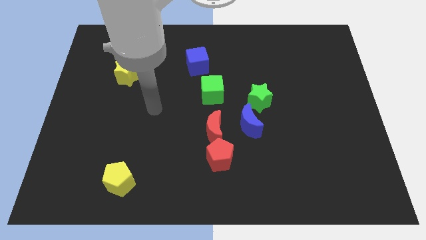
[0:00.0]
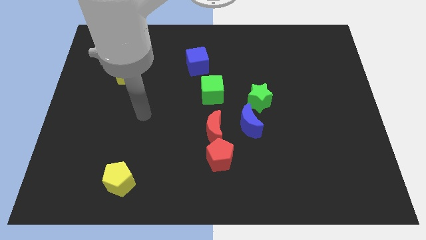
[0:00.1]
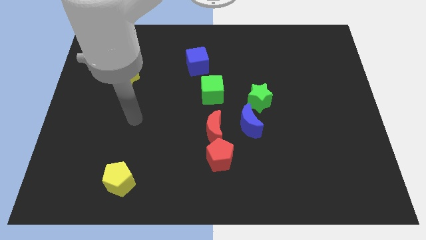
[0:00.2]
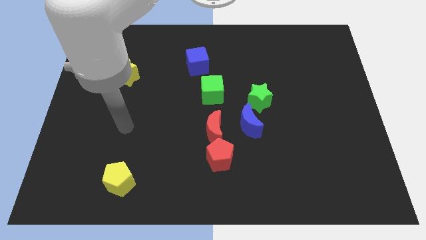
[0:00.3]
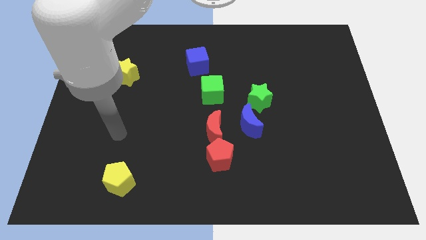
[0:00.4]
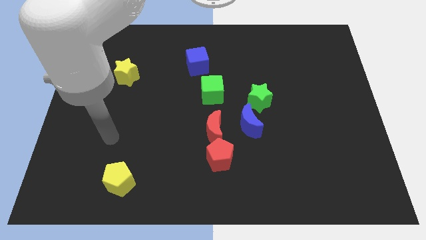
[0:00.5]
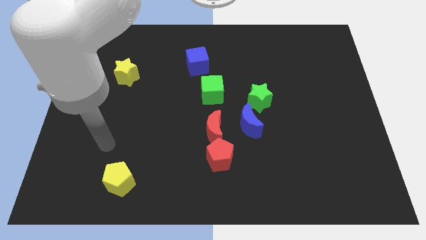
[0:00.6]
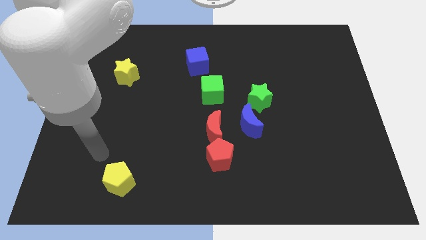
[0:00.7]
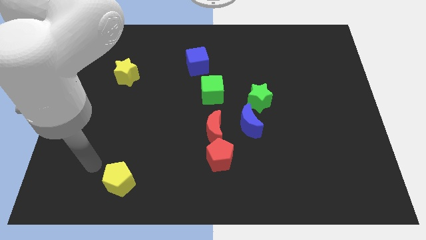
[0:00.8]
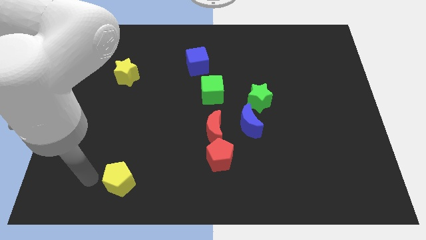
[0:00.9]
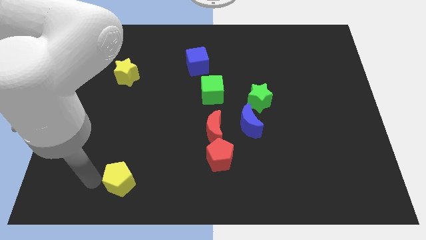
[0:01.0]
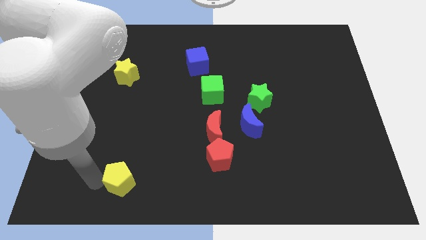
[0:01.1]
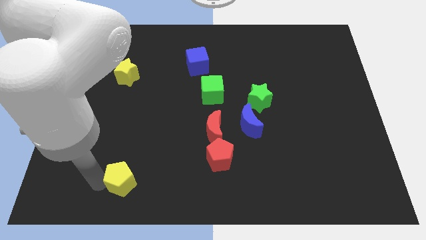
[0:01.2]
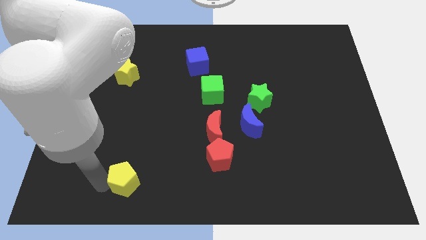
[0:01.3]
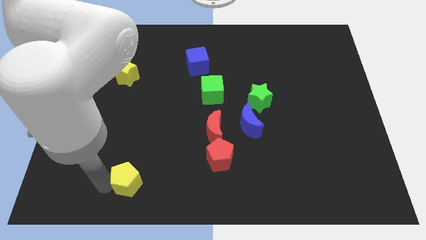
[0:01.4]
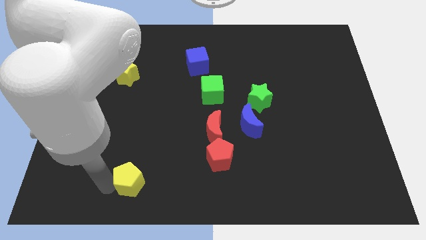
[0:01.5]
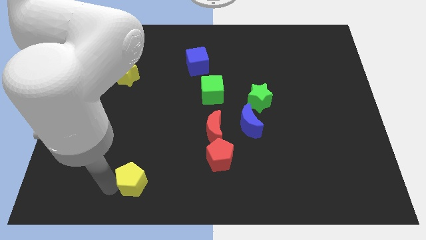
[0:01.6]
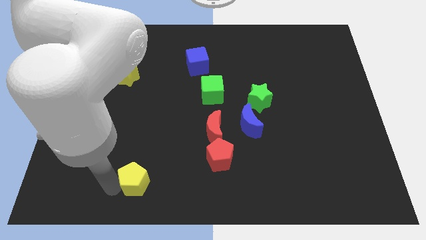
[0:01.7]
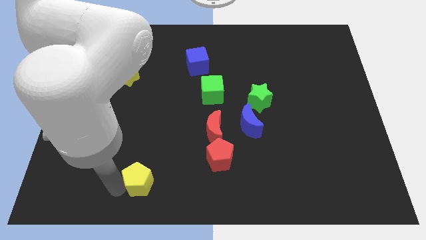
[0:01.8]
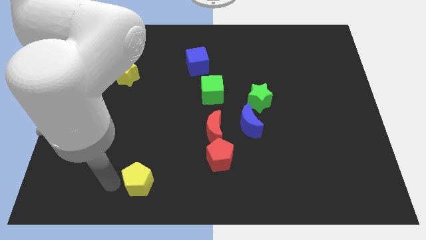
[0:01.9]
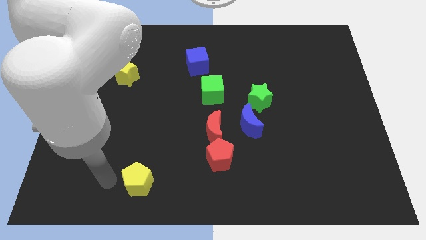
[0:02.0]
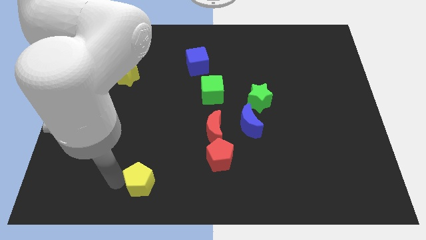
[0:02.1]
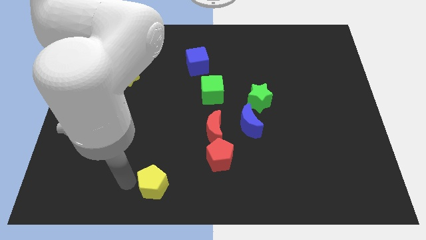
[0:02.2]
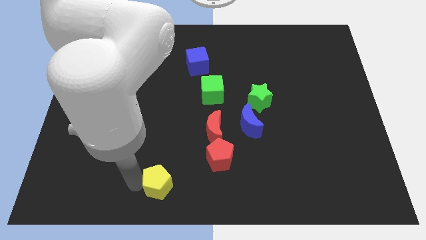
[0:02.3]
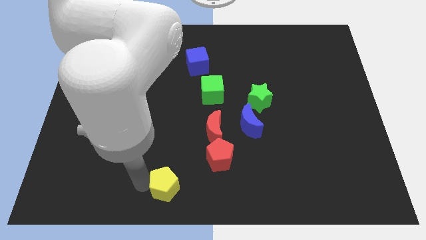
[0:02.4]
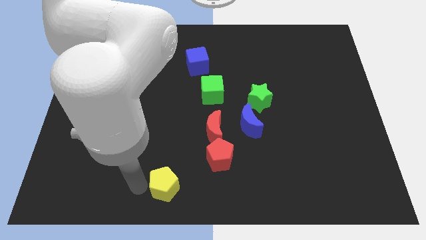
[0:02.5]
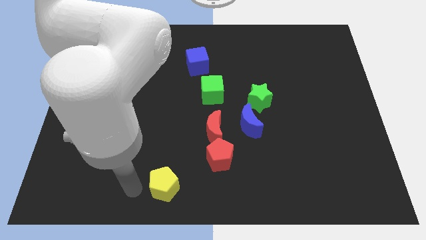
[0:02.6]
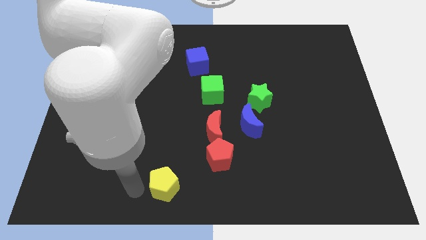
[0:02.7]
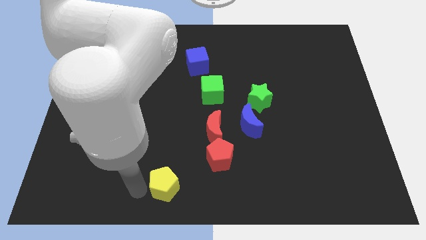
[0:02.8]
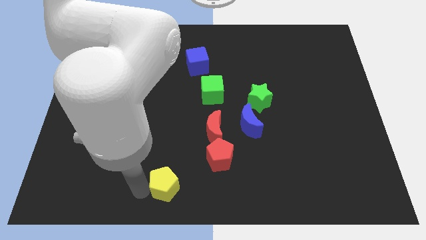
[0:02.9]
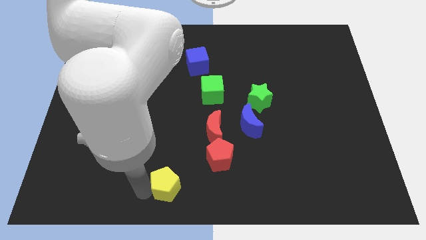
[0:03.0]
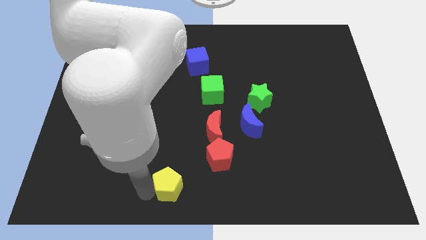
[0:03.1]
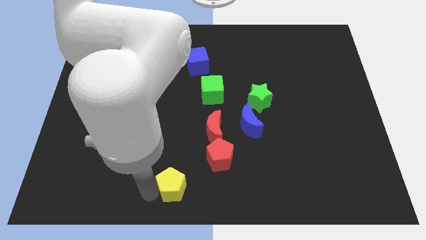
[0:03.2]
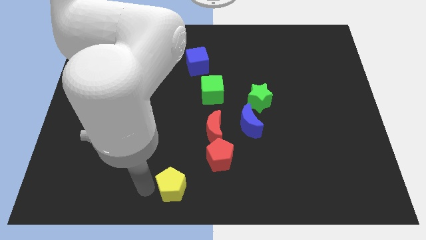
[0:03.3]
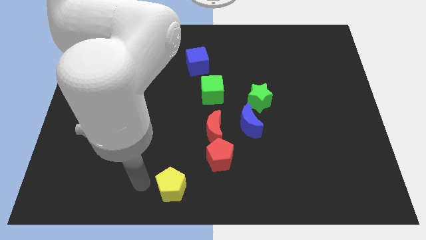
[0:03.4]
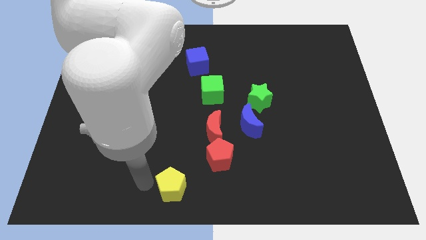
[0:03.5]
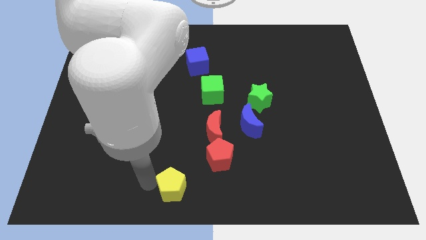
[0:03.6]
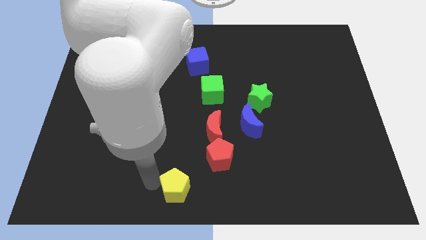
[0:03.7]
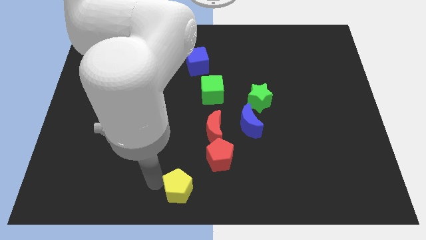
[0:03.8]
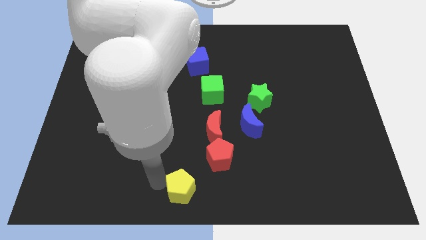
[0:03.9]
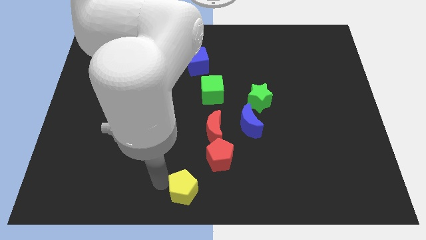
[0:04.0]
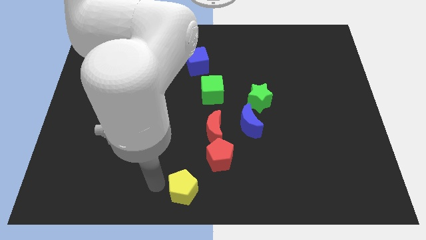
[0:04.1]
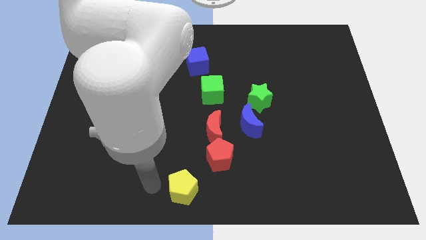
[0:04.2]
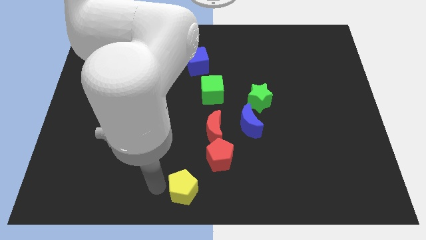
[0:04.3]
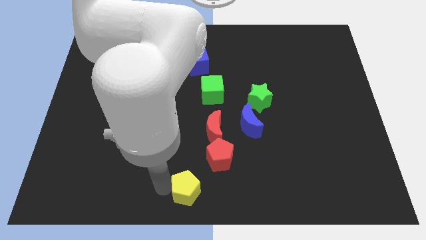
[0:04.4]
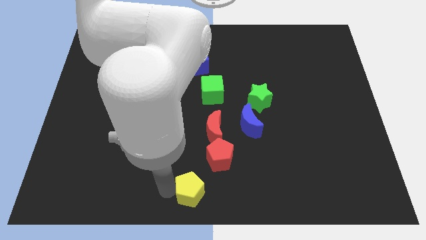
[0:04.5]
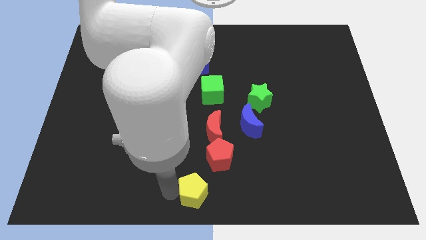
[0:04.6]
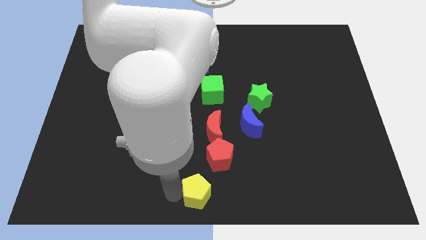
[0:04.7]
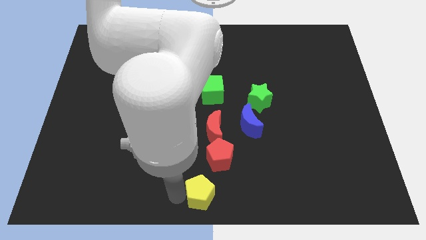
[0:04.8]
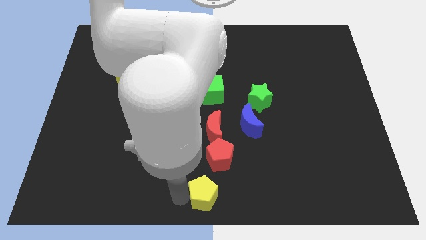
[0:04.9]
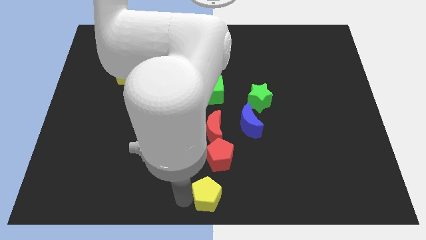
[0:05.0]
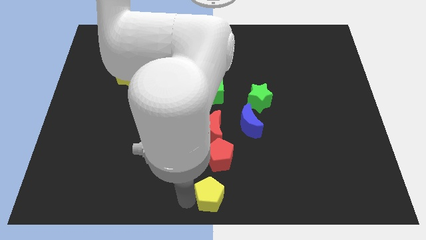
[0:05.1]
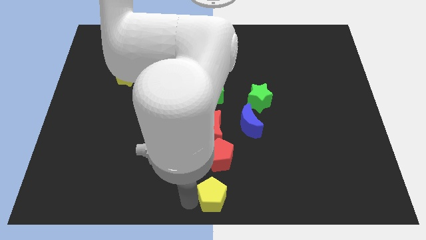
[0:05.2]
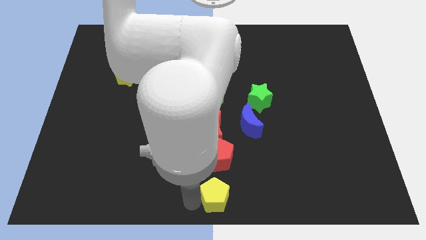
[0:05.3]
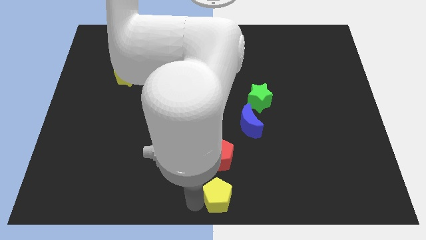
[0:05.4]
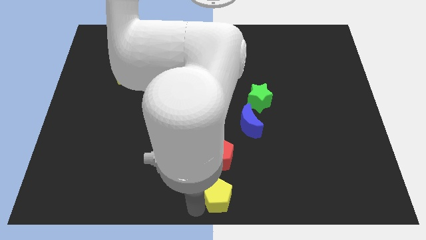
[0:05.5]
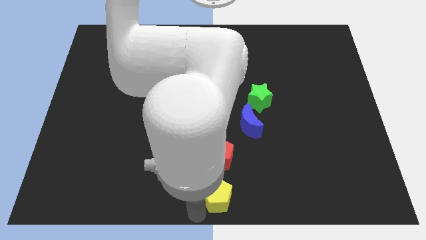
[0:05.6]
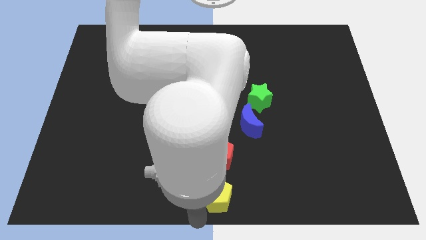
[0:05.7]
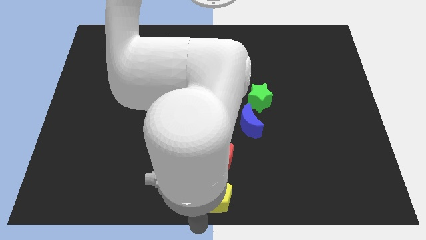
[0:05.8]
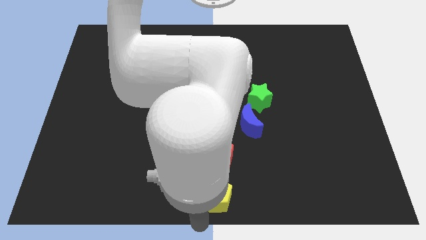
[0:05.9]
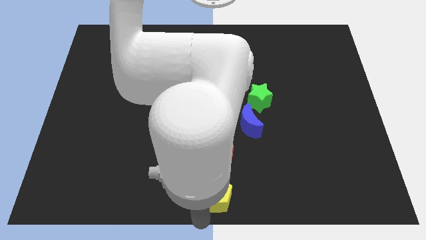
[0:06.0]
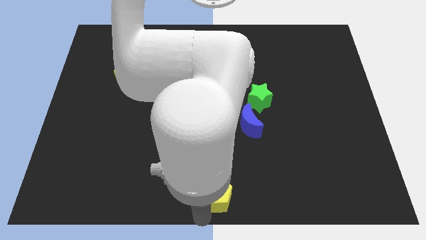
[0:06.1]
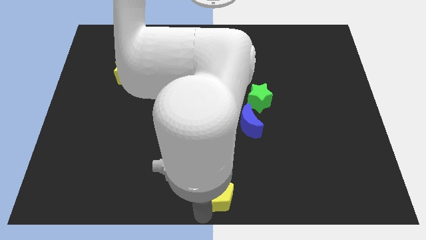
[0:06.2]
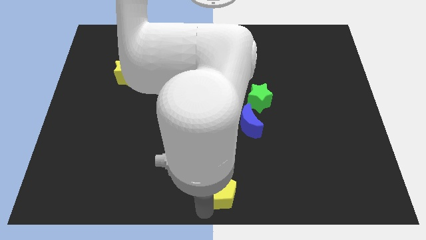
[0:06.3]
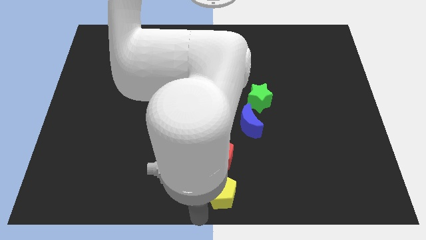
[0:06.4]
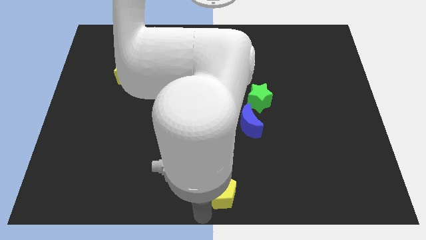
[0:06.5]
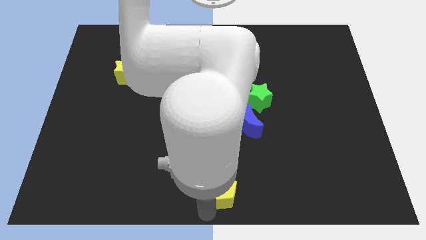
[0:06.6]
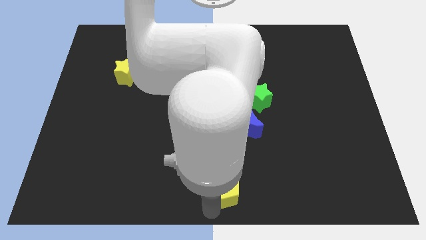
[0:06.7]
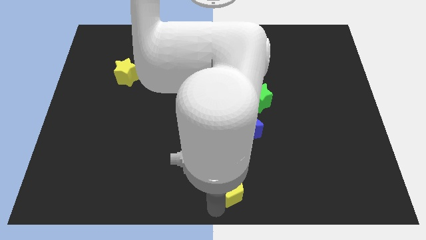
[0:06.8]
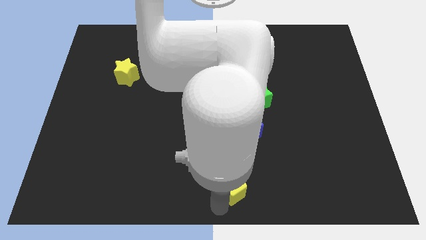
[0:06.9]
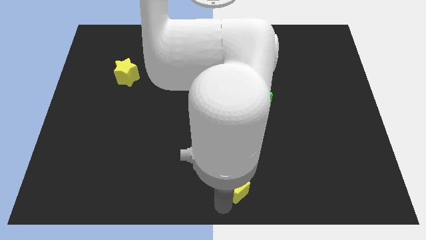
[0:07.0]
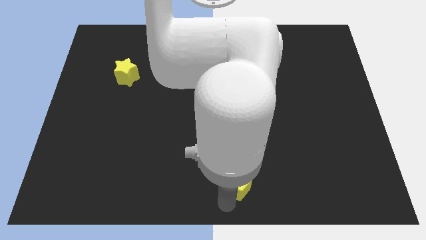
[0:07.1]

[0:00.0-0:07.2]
push the yellow pentagon to the bottom side of the blue moon
